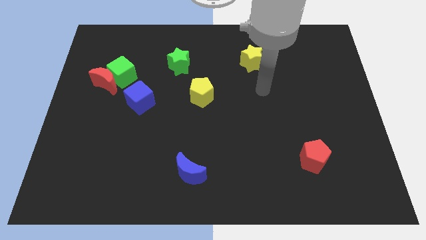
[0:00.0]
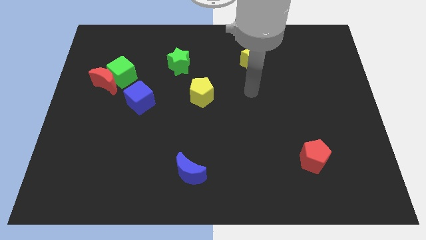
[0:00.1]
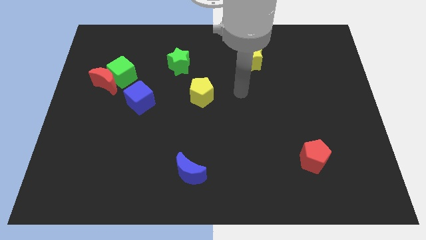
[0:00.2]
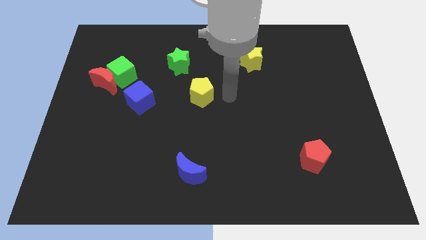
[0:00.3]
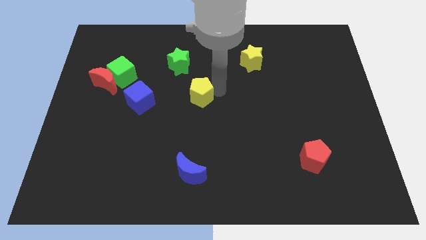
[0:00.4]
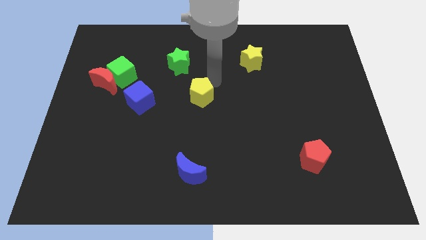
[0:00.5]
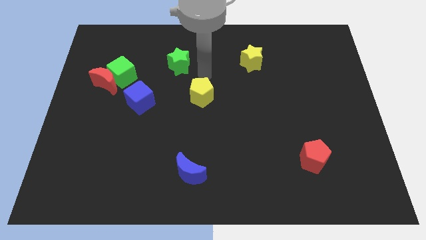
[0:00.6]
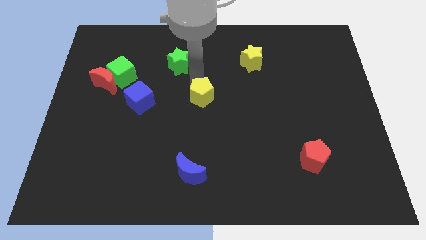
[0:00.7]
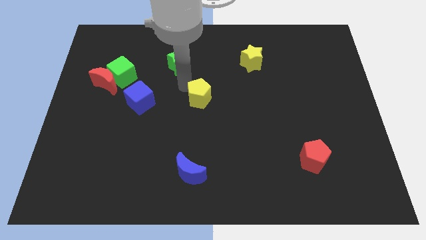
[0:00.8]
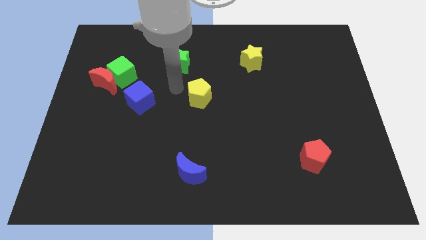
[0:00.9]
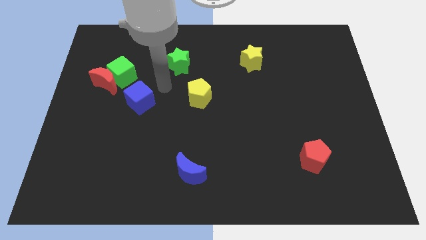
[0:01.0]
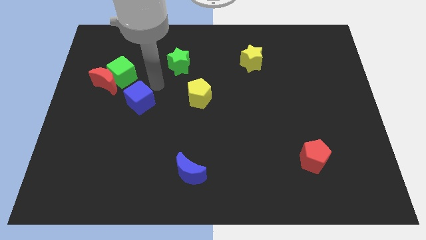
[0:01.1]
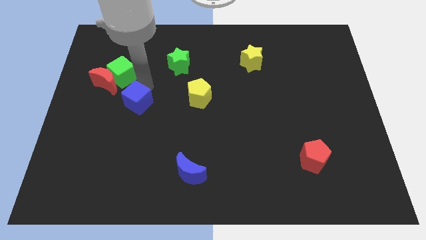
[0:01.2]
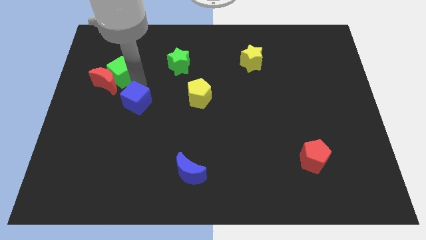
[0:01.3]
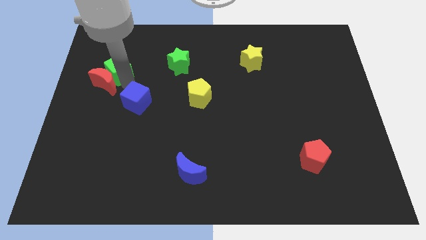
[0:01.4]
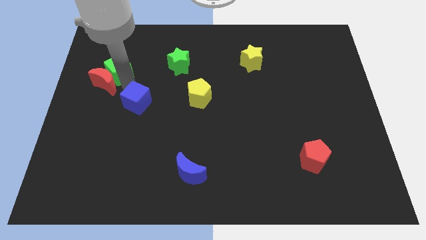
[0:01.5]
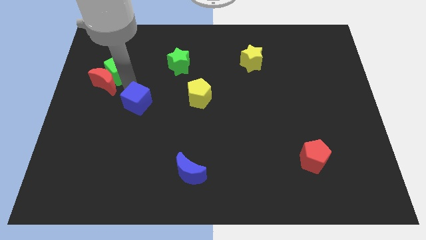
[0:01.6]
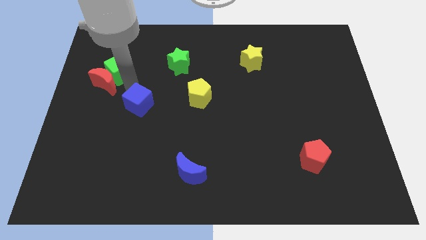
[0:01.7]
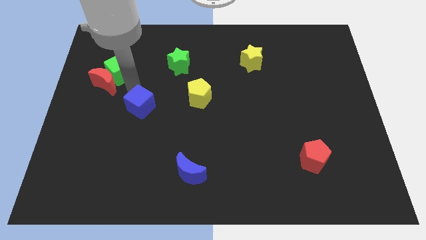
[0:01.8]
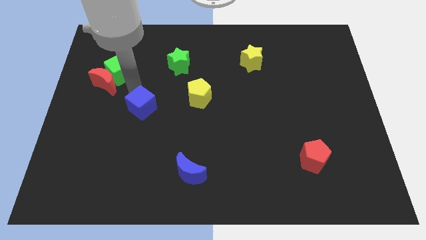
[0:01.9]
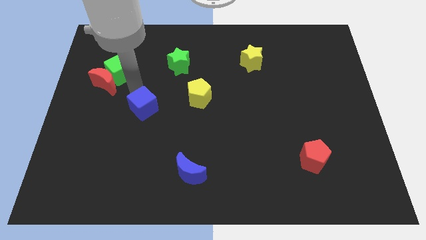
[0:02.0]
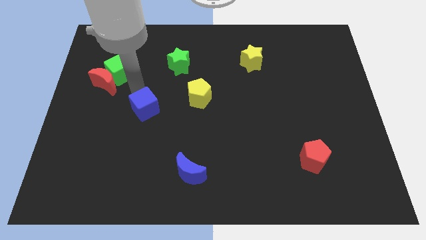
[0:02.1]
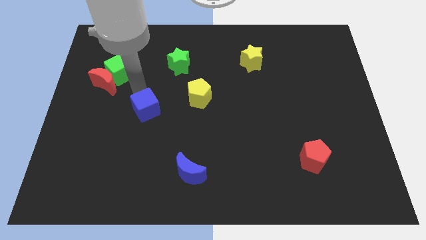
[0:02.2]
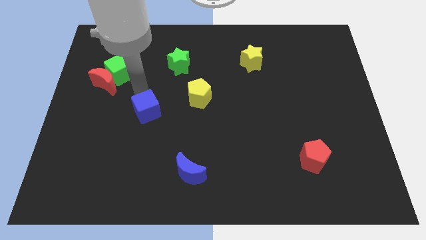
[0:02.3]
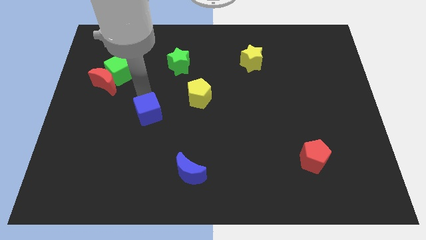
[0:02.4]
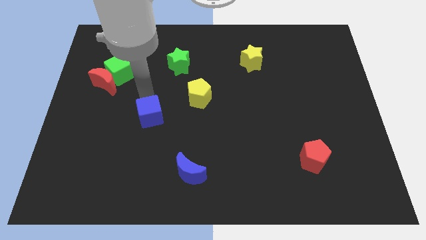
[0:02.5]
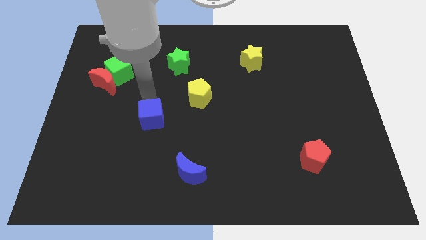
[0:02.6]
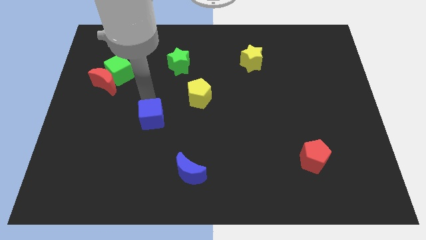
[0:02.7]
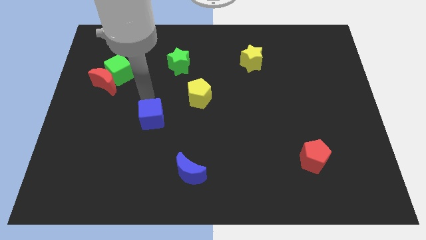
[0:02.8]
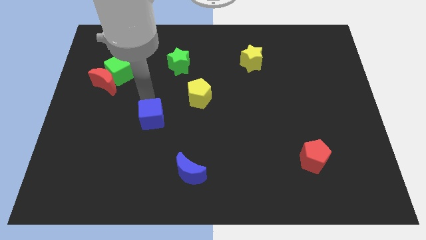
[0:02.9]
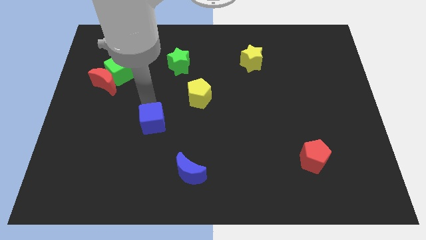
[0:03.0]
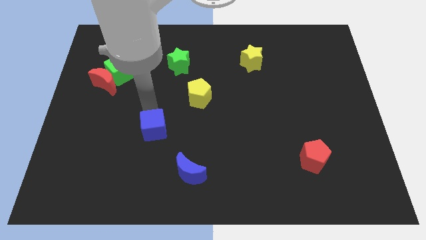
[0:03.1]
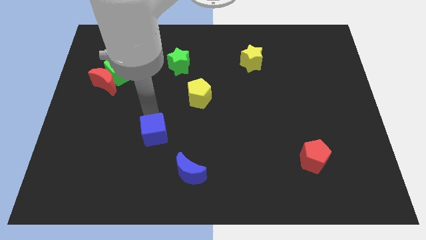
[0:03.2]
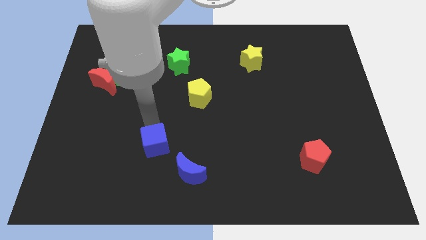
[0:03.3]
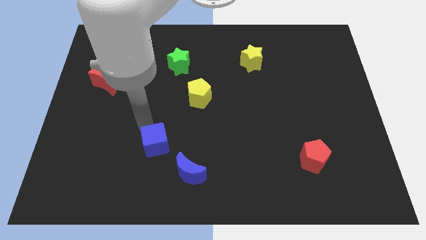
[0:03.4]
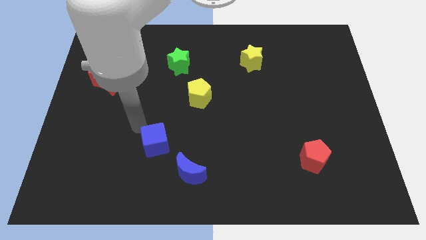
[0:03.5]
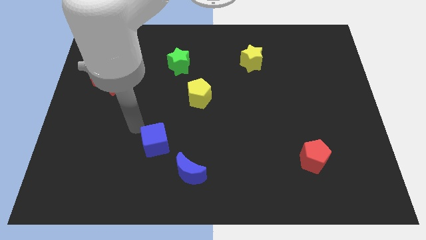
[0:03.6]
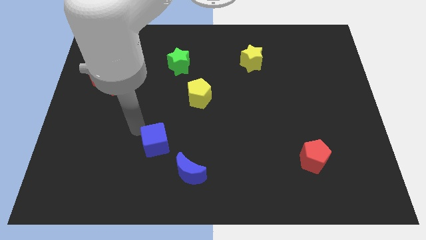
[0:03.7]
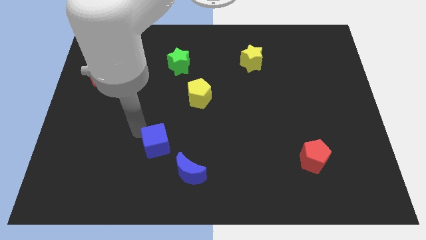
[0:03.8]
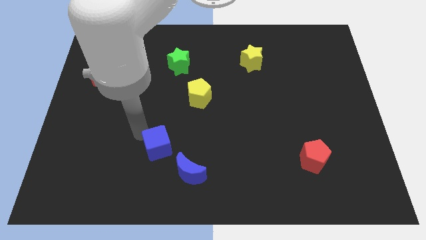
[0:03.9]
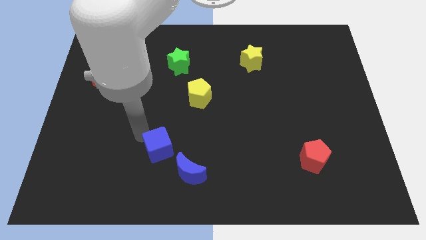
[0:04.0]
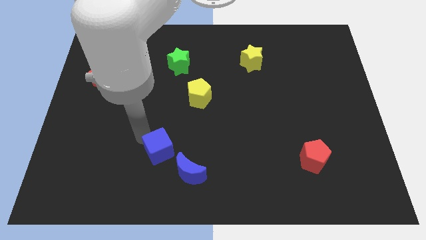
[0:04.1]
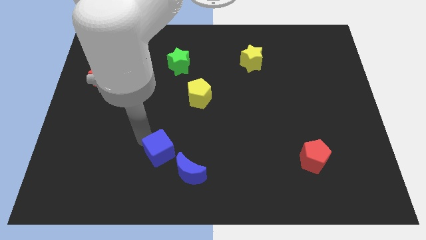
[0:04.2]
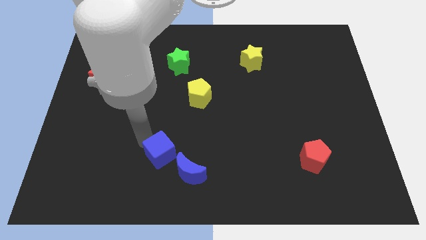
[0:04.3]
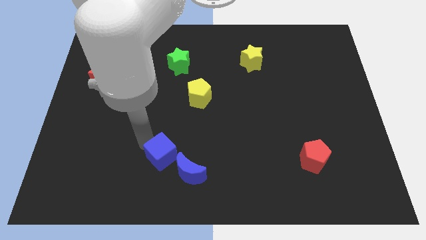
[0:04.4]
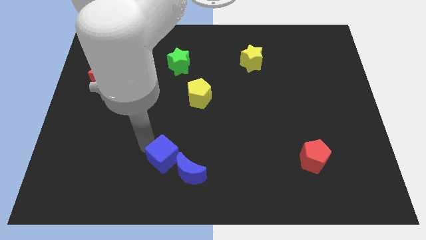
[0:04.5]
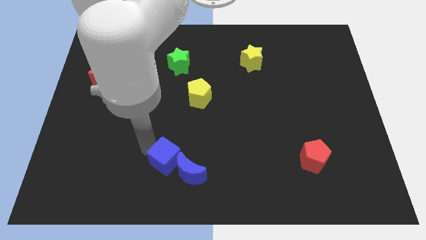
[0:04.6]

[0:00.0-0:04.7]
put the blue cube next to the blue moon

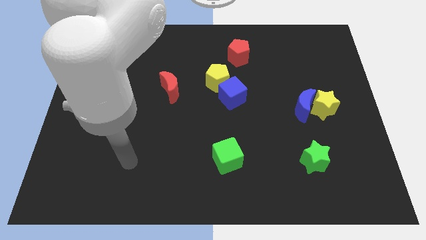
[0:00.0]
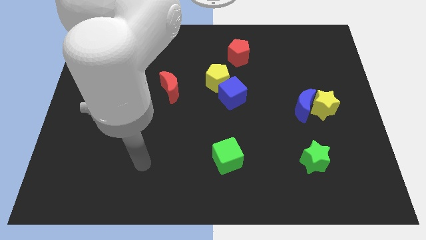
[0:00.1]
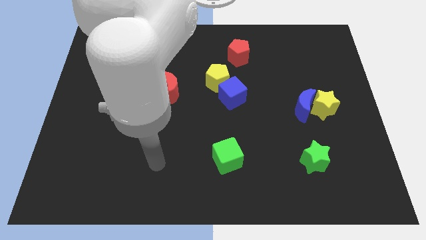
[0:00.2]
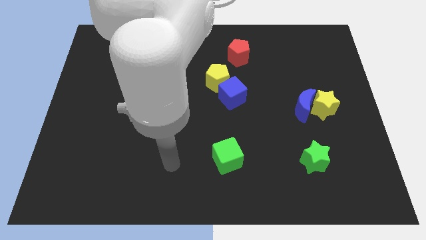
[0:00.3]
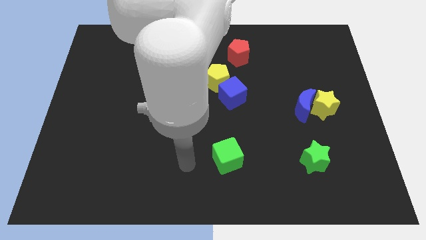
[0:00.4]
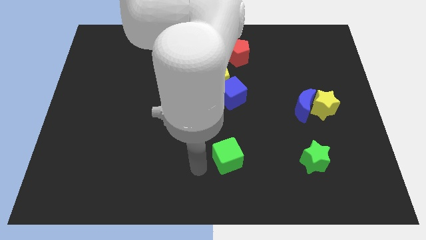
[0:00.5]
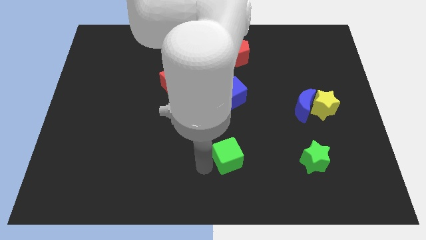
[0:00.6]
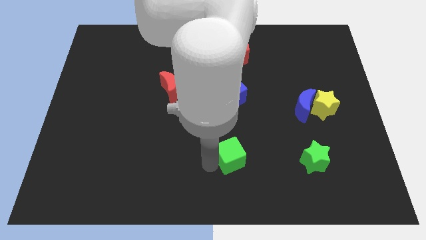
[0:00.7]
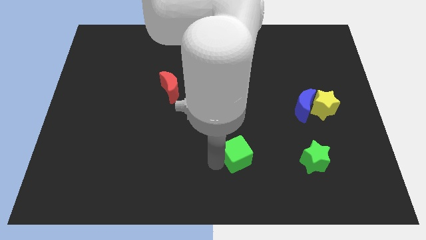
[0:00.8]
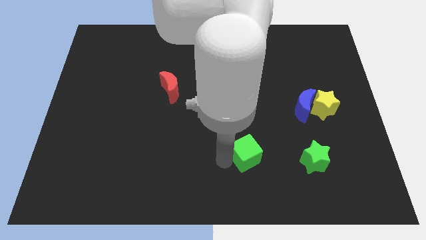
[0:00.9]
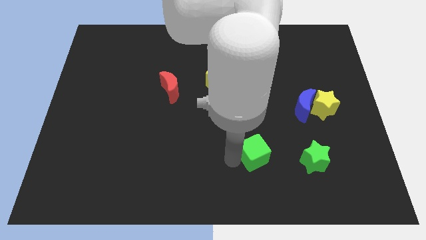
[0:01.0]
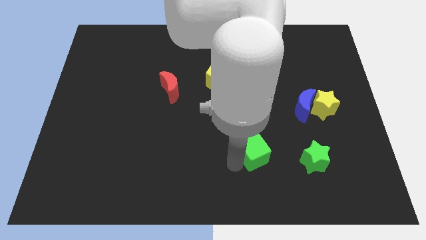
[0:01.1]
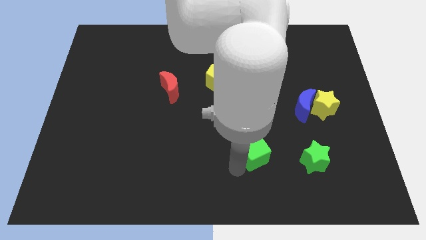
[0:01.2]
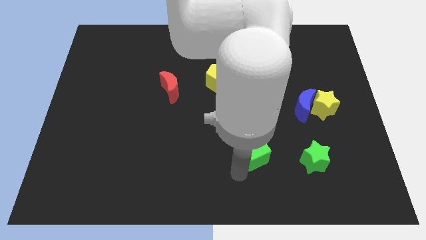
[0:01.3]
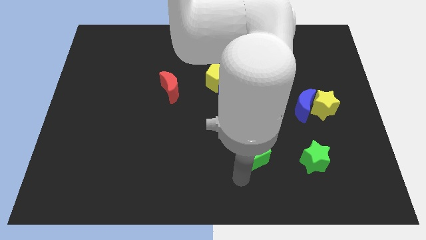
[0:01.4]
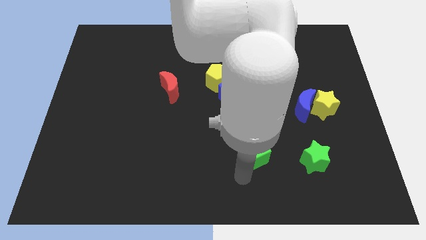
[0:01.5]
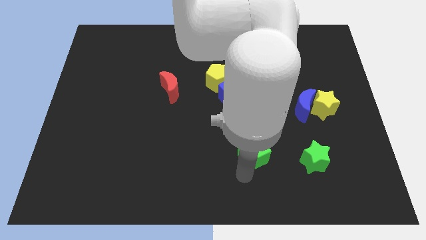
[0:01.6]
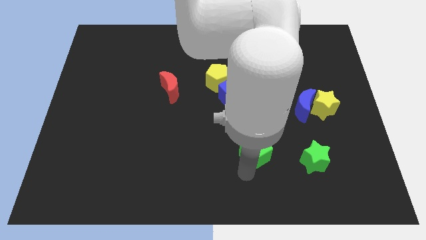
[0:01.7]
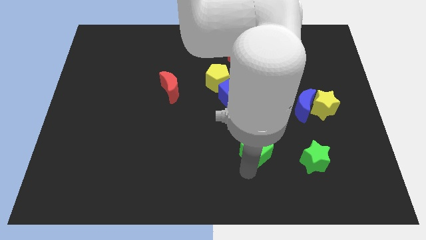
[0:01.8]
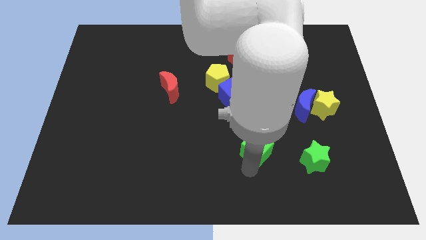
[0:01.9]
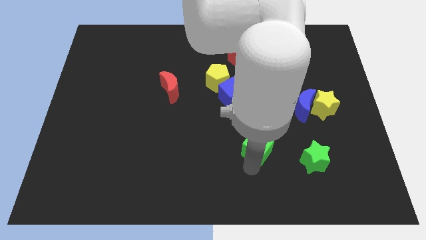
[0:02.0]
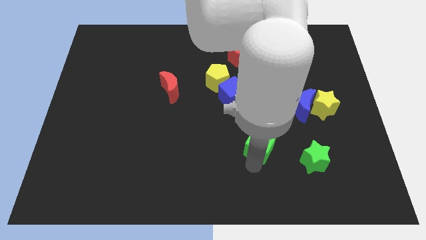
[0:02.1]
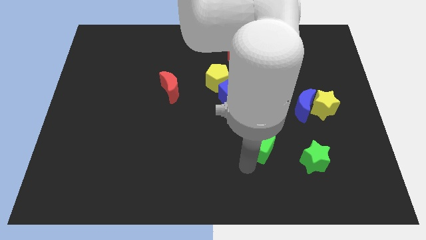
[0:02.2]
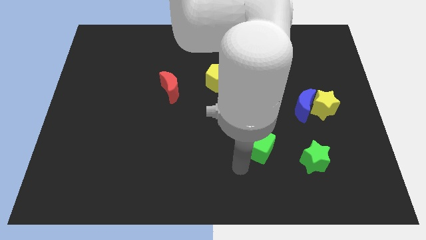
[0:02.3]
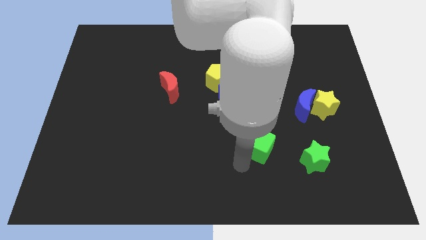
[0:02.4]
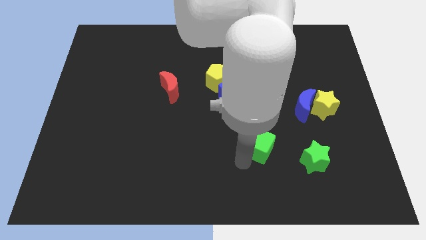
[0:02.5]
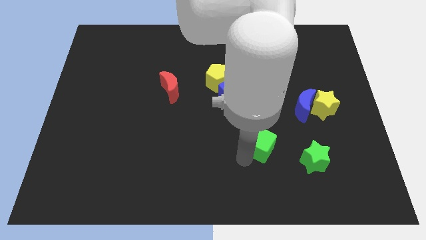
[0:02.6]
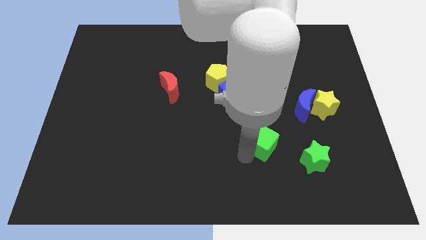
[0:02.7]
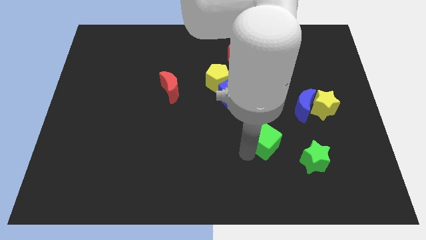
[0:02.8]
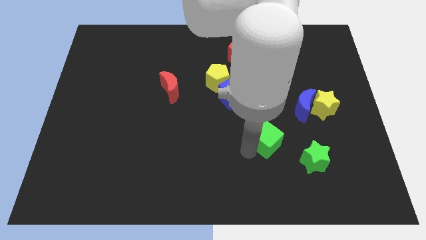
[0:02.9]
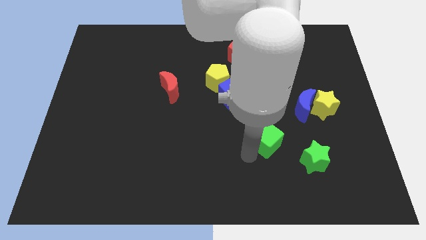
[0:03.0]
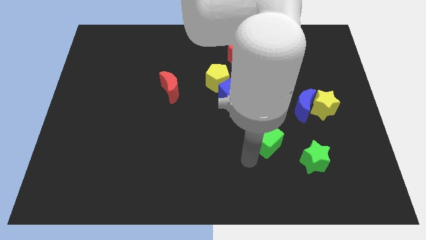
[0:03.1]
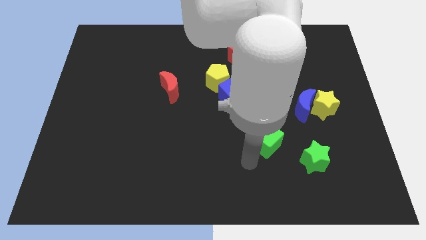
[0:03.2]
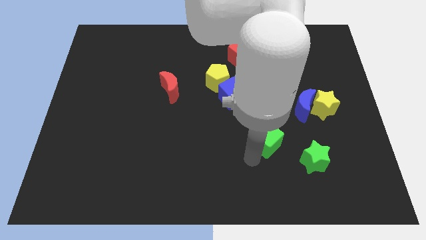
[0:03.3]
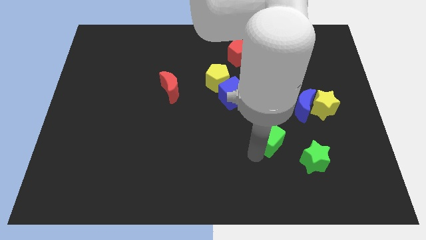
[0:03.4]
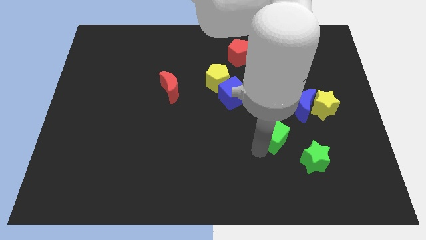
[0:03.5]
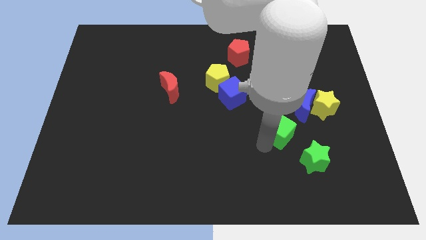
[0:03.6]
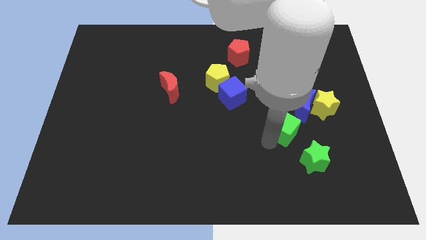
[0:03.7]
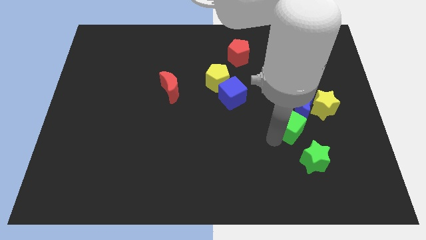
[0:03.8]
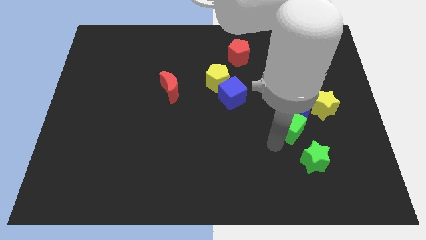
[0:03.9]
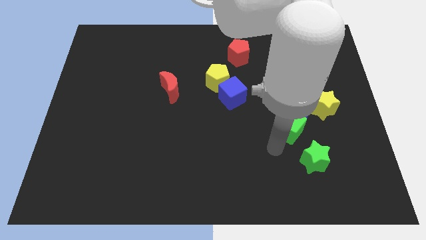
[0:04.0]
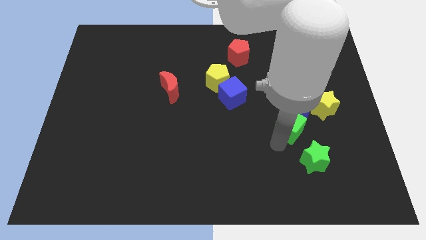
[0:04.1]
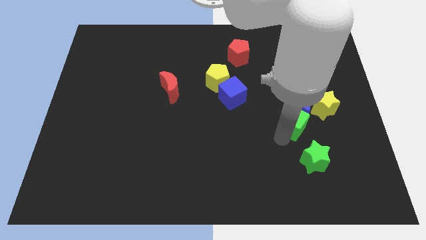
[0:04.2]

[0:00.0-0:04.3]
slide the green cube close to the blue moon
